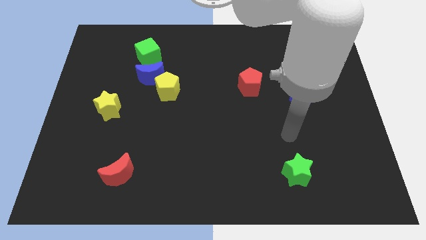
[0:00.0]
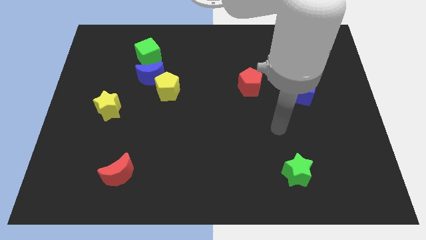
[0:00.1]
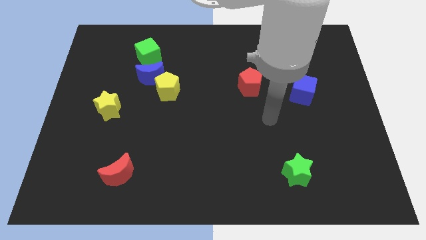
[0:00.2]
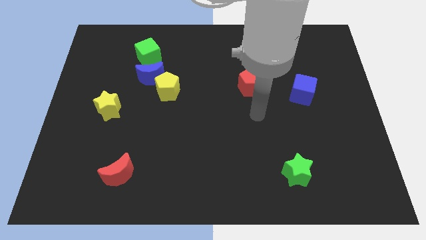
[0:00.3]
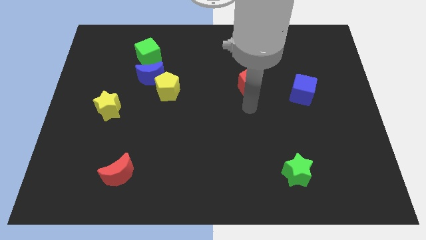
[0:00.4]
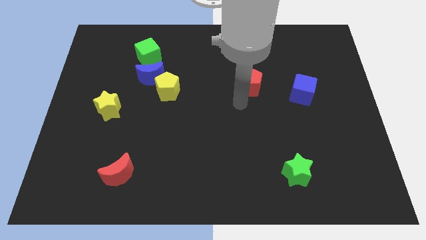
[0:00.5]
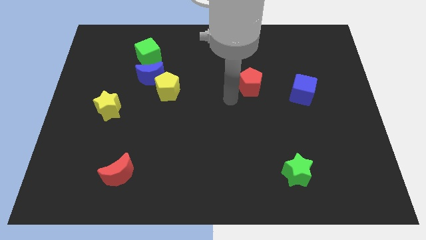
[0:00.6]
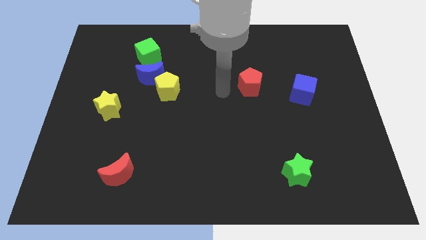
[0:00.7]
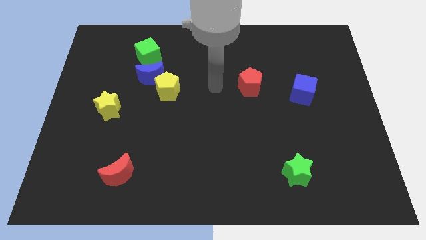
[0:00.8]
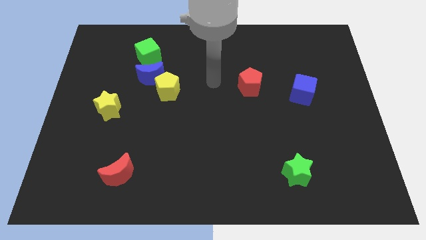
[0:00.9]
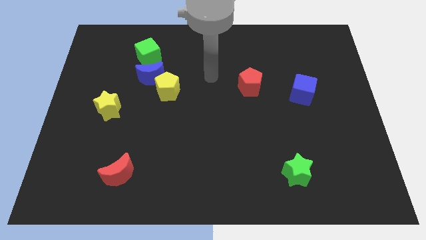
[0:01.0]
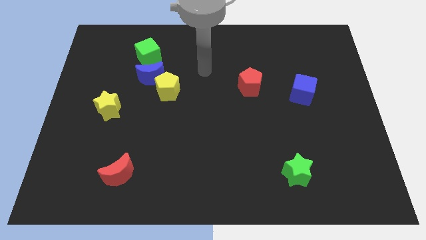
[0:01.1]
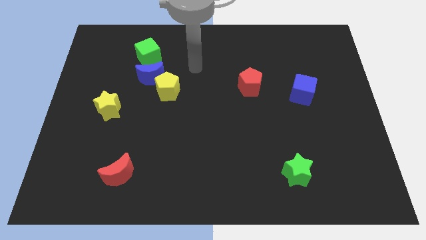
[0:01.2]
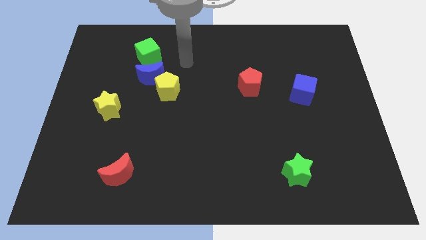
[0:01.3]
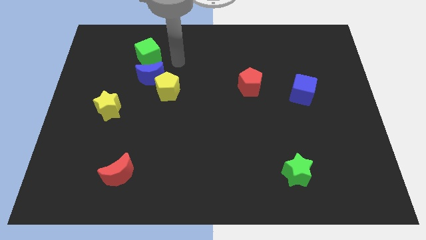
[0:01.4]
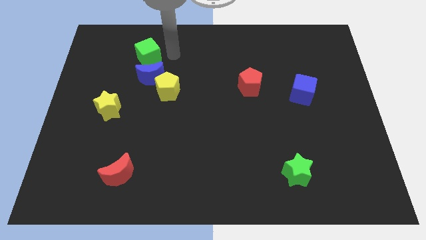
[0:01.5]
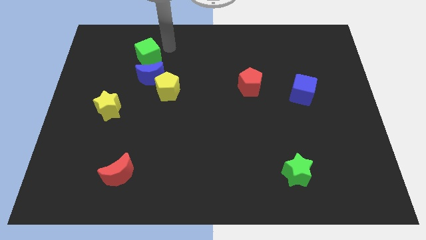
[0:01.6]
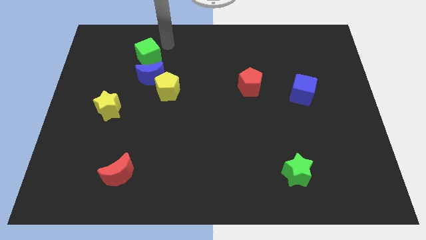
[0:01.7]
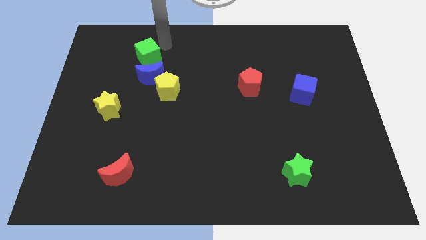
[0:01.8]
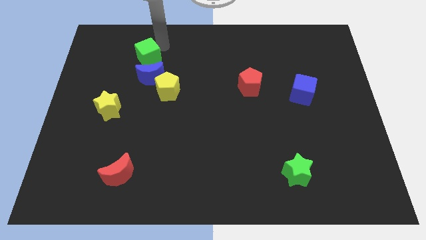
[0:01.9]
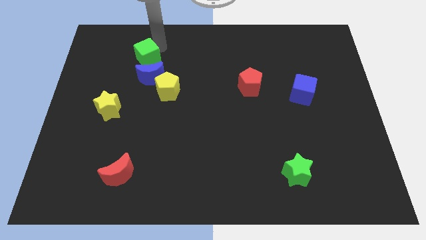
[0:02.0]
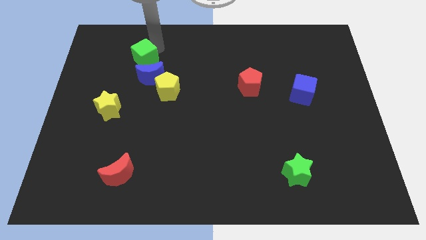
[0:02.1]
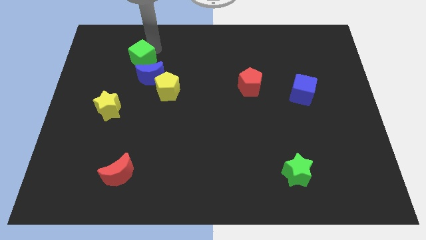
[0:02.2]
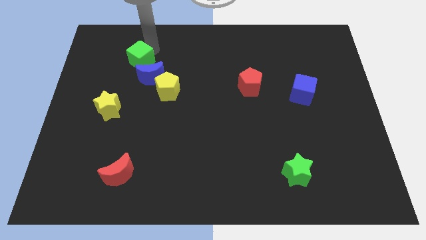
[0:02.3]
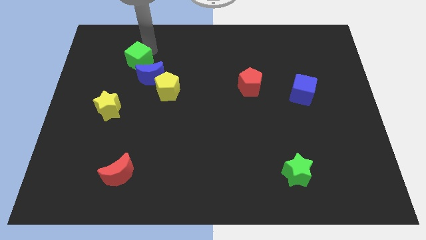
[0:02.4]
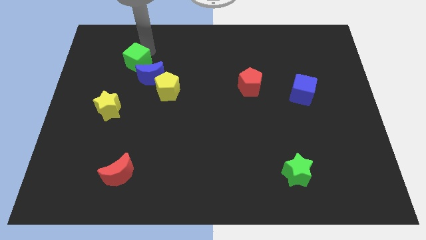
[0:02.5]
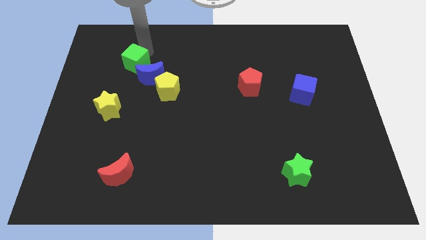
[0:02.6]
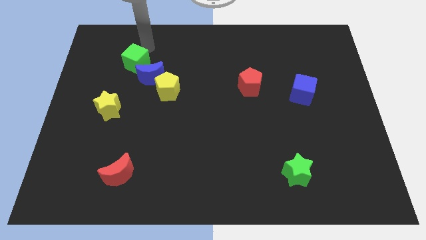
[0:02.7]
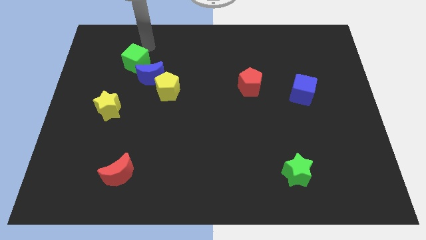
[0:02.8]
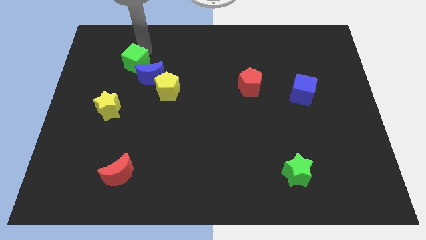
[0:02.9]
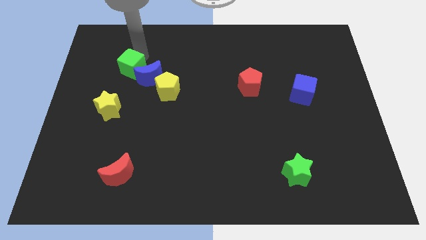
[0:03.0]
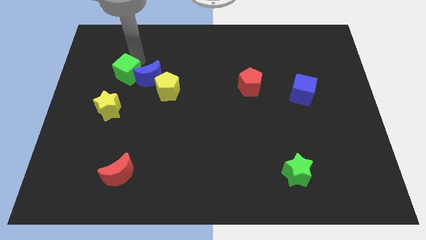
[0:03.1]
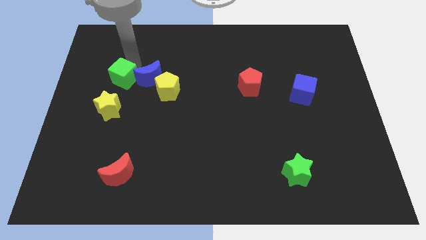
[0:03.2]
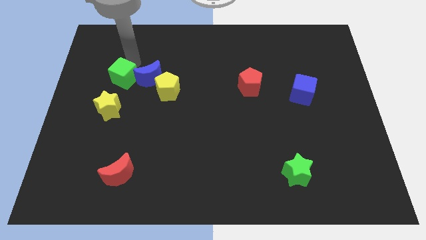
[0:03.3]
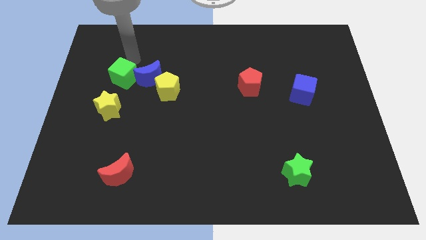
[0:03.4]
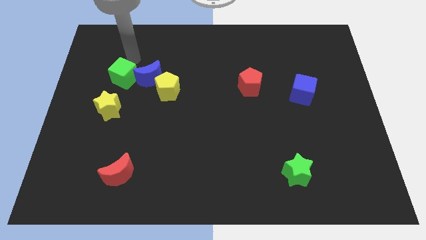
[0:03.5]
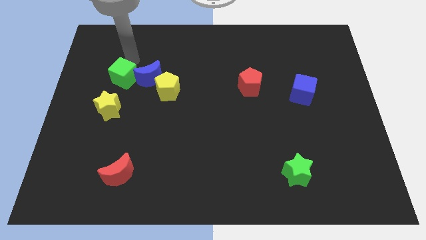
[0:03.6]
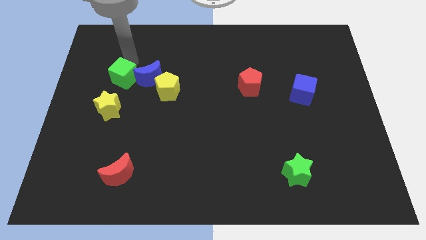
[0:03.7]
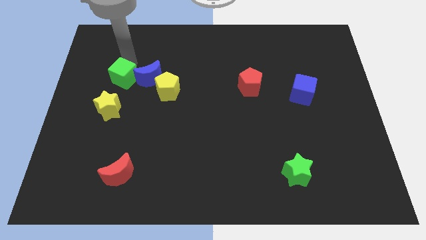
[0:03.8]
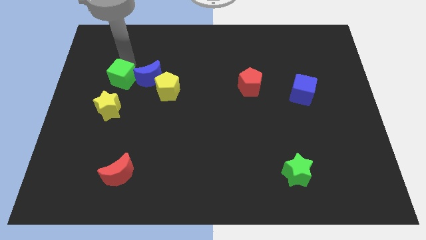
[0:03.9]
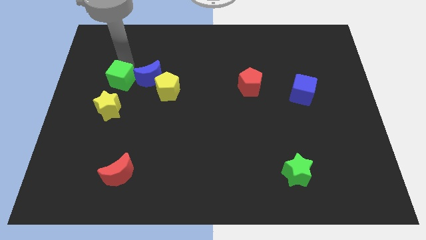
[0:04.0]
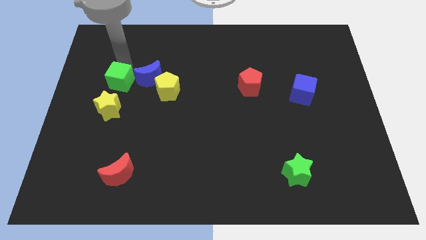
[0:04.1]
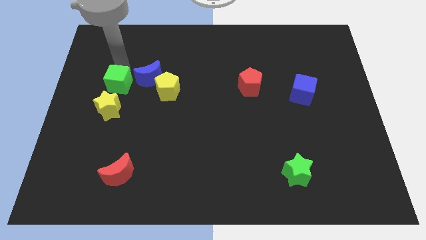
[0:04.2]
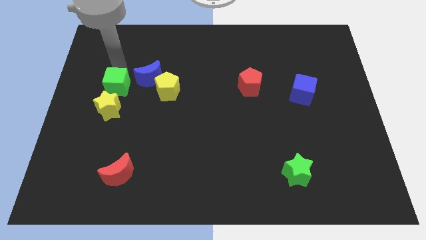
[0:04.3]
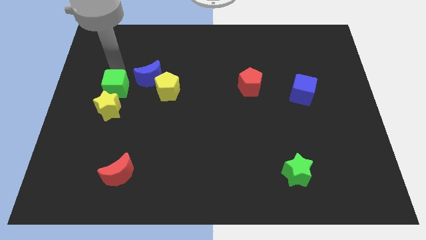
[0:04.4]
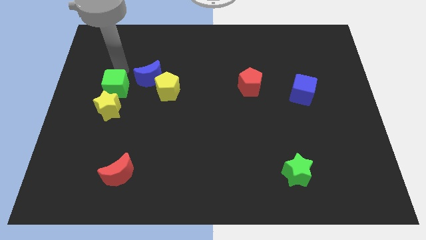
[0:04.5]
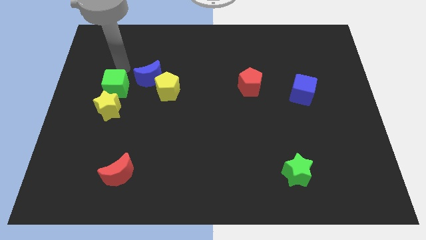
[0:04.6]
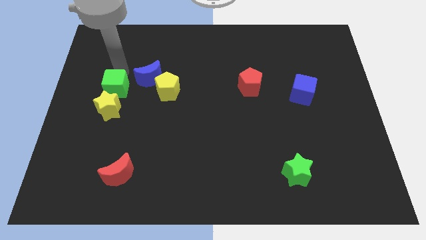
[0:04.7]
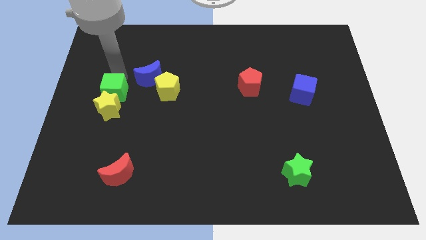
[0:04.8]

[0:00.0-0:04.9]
move the green cube next to the yellow star

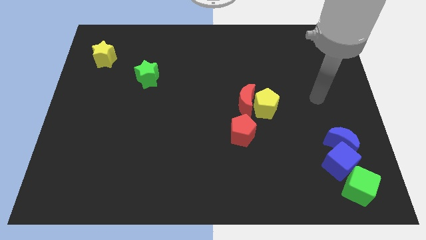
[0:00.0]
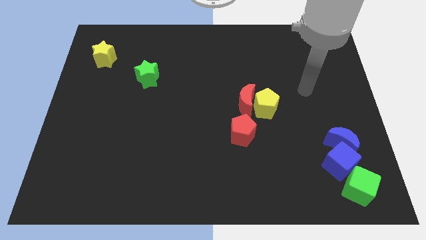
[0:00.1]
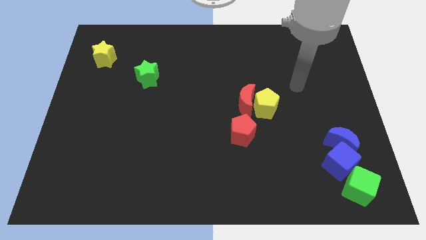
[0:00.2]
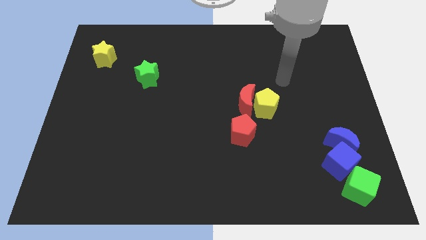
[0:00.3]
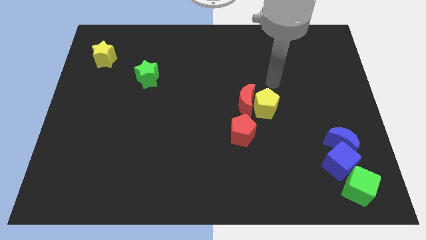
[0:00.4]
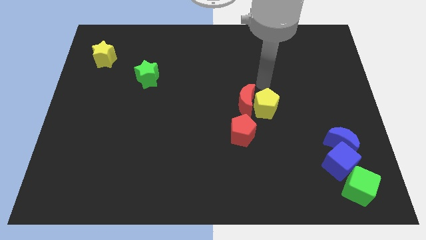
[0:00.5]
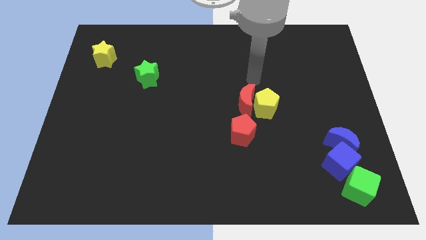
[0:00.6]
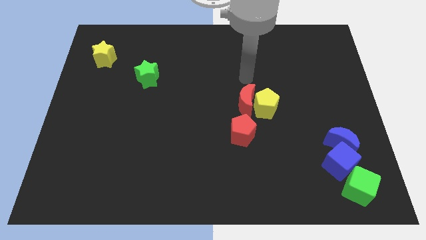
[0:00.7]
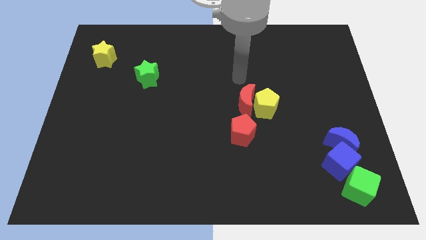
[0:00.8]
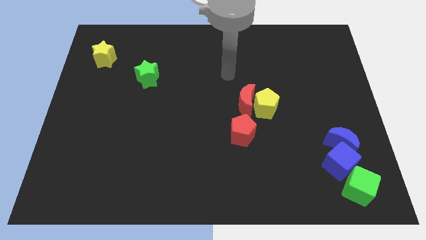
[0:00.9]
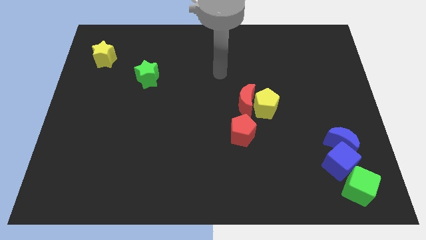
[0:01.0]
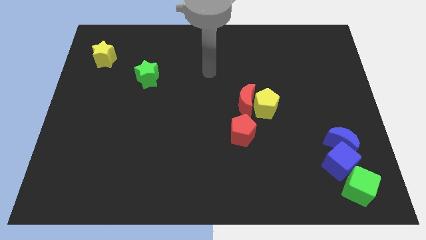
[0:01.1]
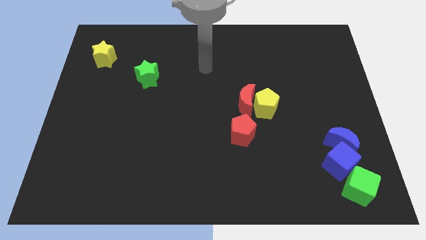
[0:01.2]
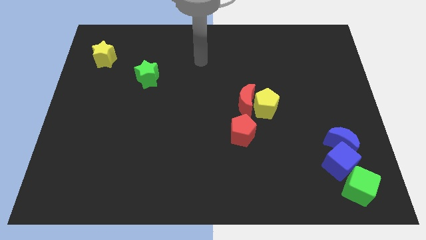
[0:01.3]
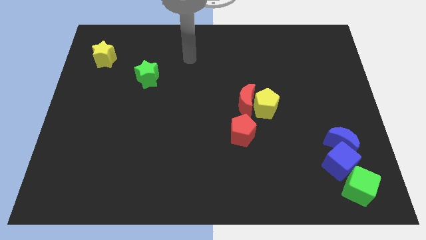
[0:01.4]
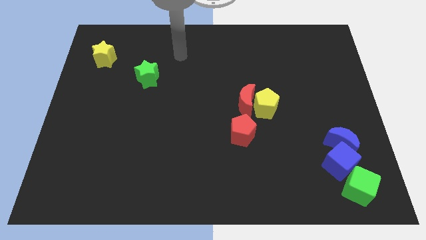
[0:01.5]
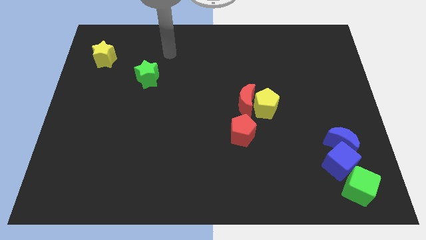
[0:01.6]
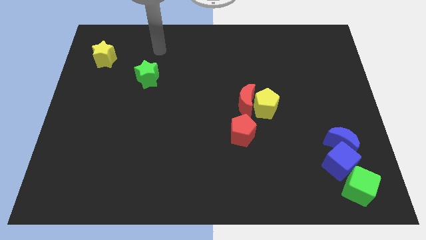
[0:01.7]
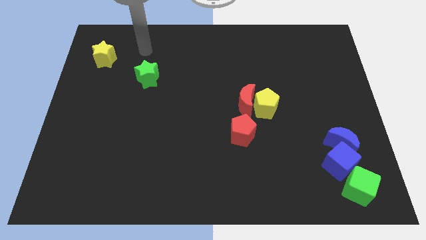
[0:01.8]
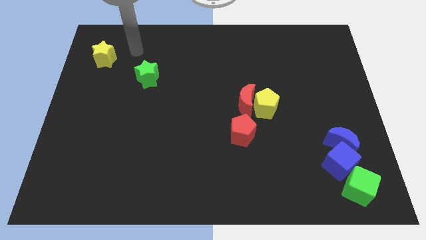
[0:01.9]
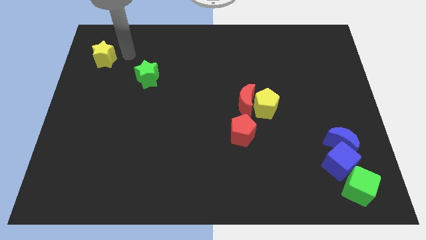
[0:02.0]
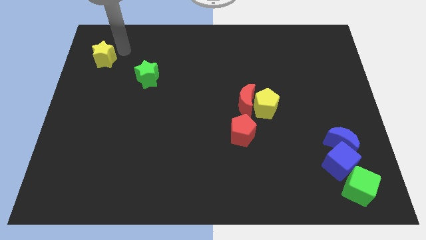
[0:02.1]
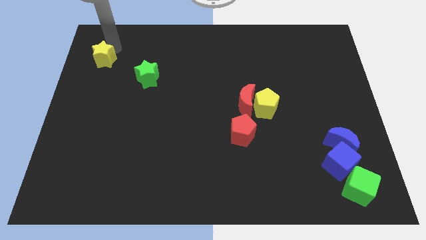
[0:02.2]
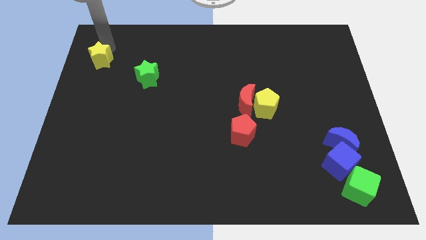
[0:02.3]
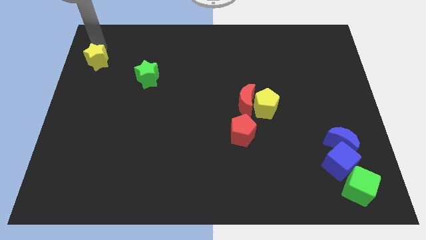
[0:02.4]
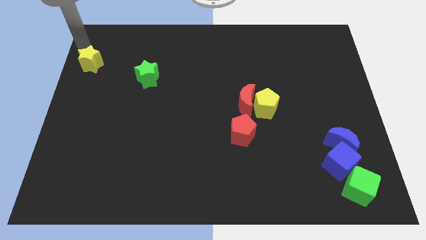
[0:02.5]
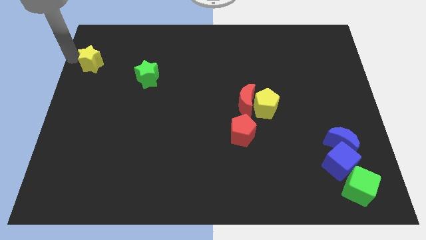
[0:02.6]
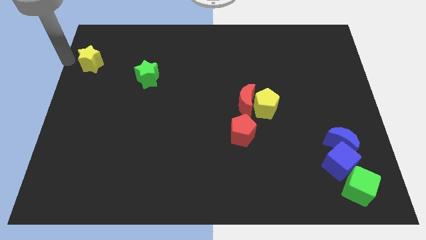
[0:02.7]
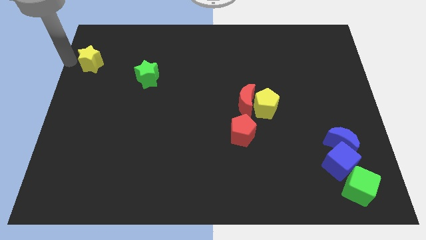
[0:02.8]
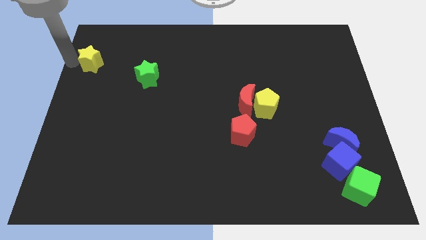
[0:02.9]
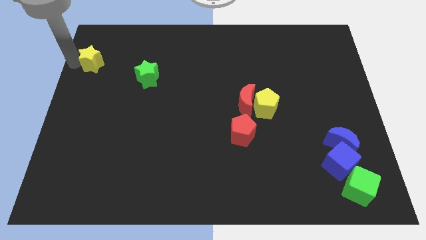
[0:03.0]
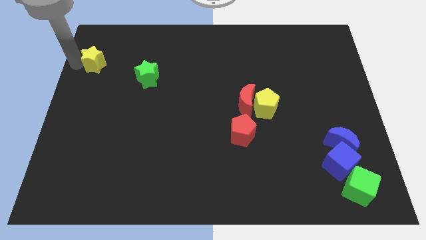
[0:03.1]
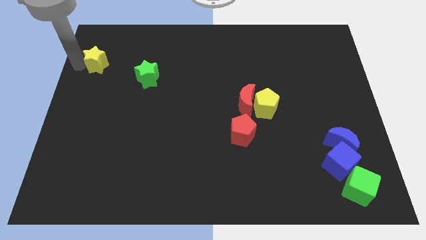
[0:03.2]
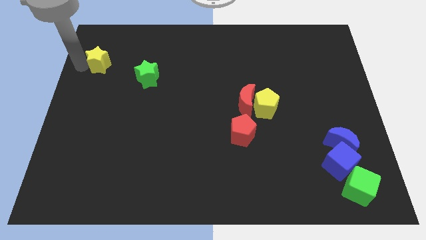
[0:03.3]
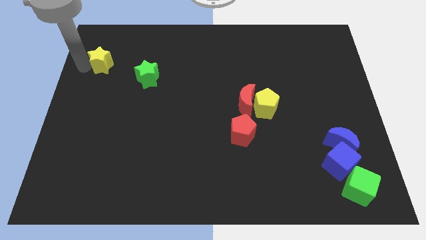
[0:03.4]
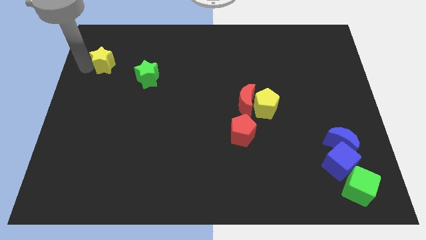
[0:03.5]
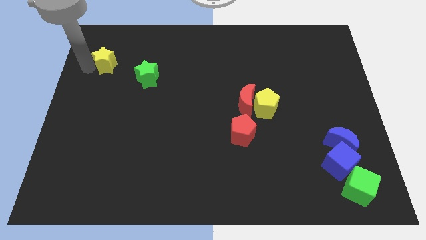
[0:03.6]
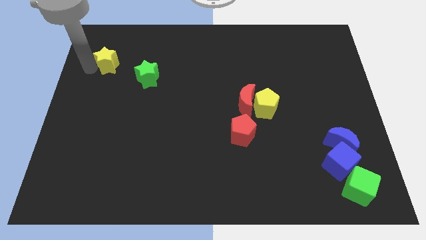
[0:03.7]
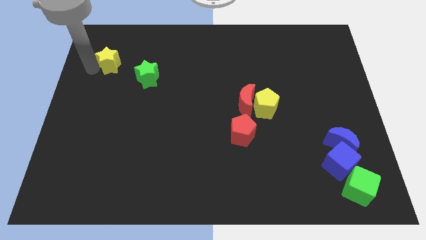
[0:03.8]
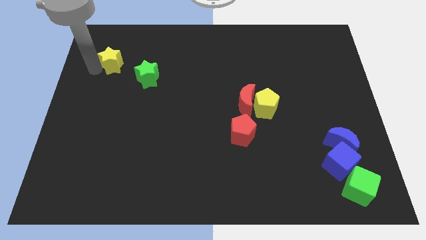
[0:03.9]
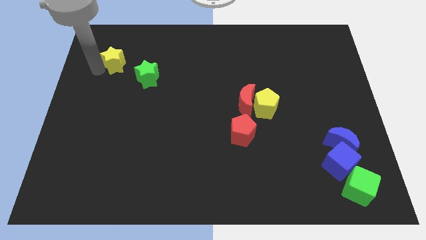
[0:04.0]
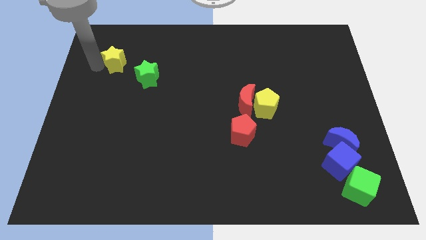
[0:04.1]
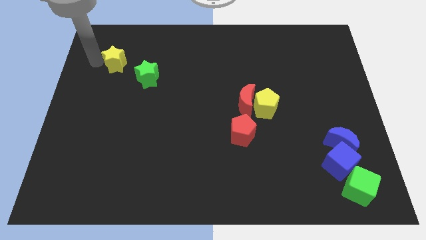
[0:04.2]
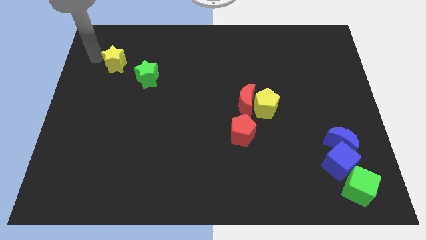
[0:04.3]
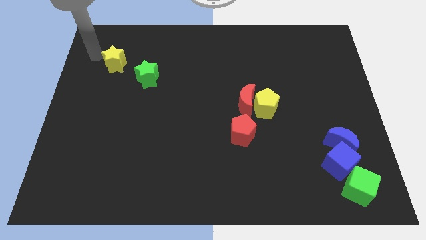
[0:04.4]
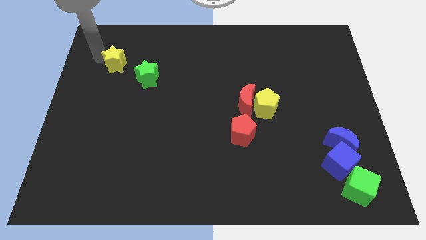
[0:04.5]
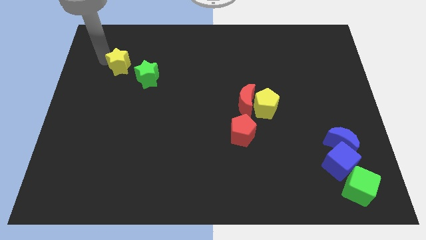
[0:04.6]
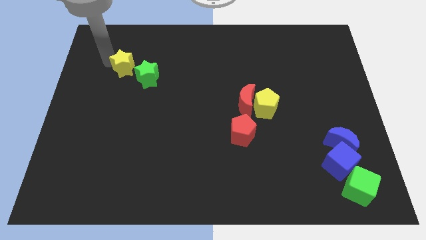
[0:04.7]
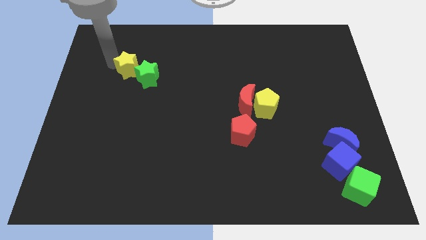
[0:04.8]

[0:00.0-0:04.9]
push the yellow star close to the green star
